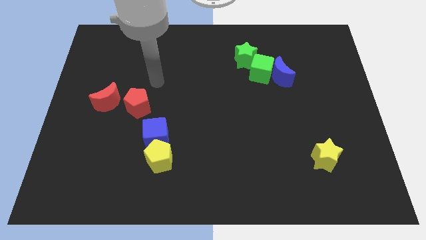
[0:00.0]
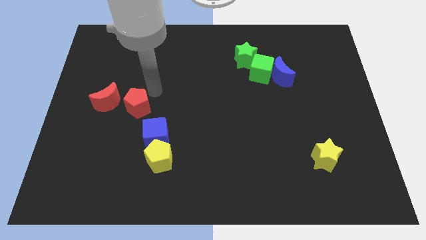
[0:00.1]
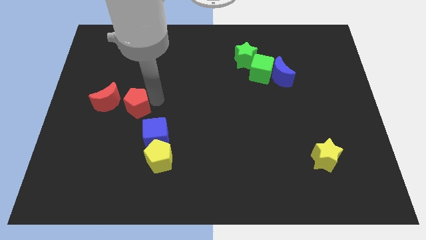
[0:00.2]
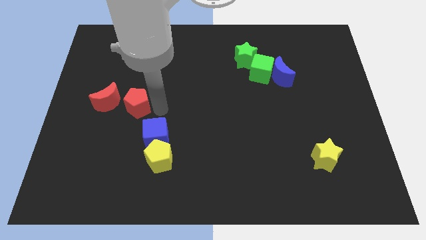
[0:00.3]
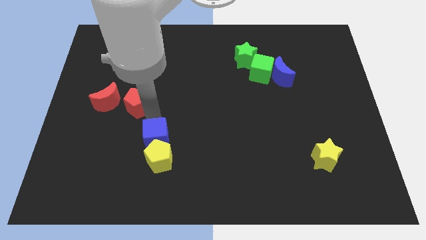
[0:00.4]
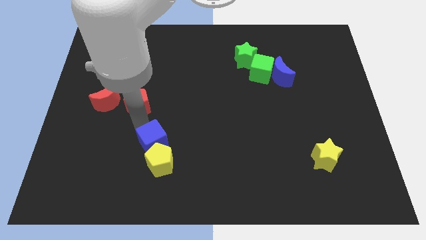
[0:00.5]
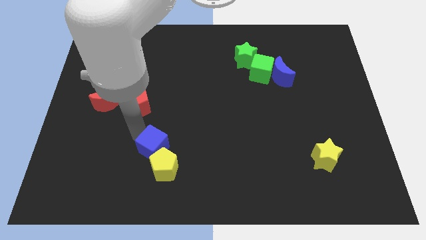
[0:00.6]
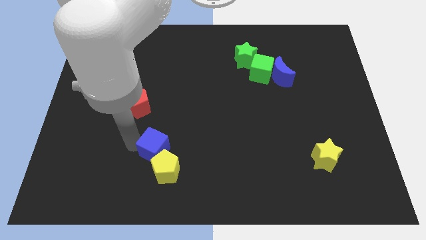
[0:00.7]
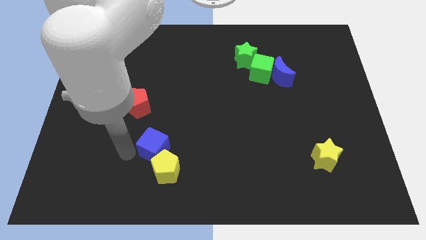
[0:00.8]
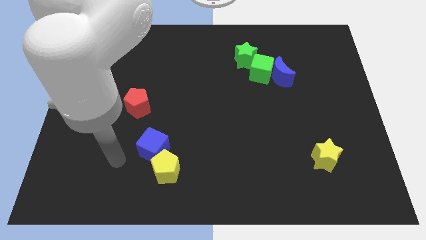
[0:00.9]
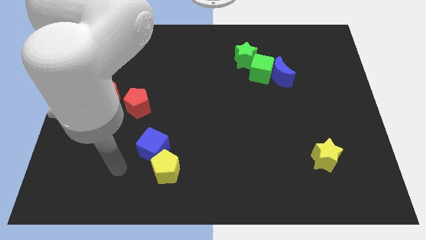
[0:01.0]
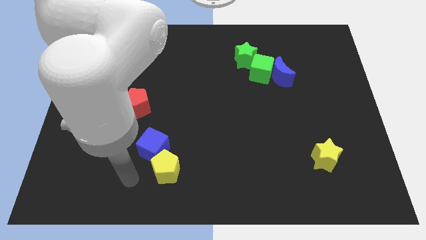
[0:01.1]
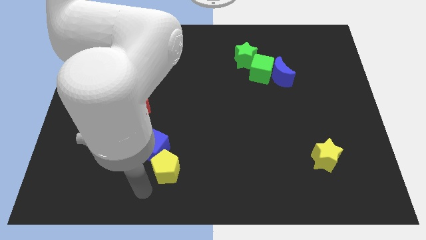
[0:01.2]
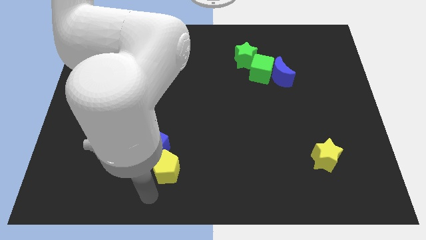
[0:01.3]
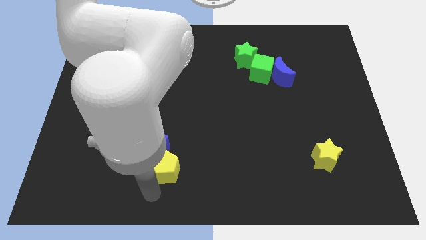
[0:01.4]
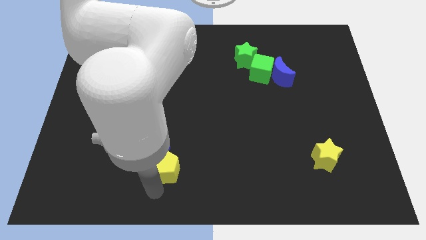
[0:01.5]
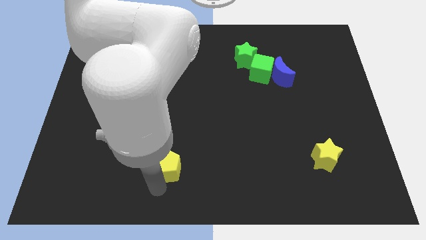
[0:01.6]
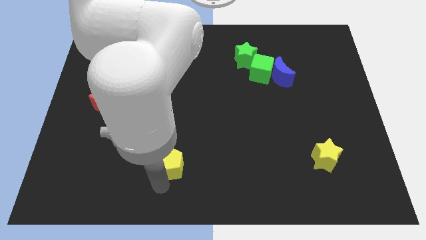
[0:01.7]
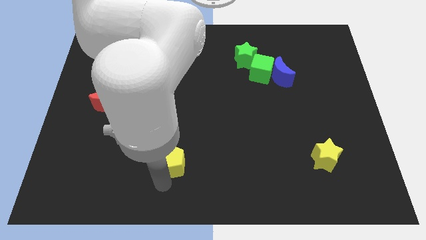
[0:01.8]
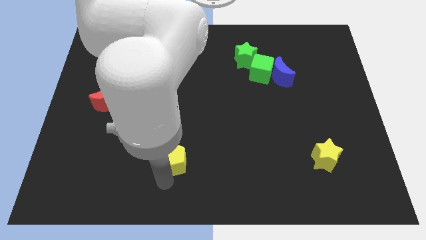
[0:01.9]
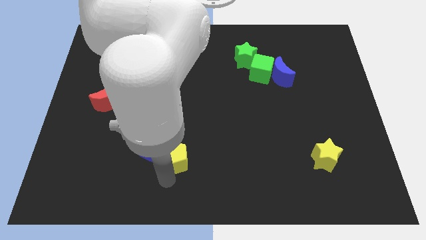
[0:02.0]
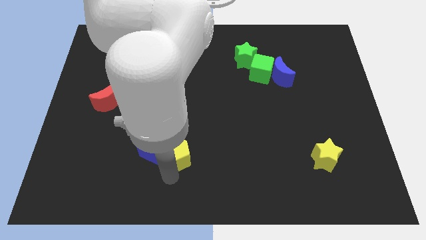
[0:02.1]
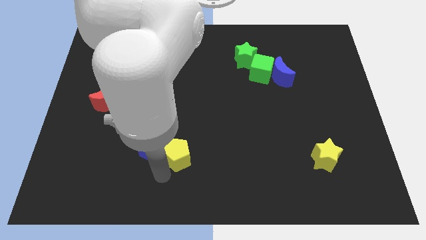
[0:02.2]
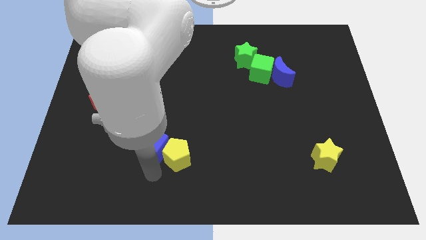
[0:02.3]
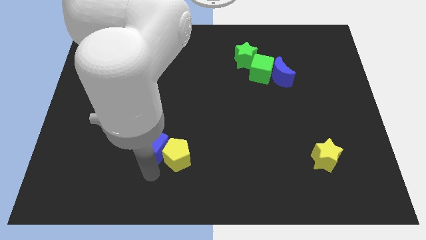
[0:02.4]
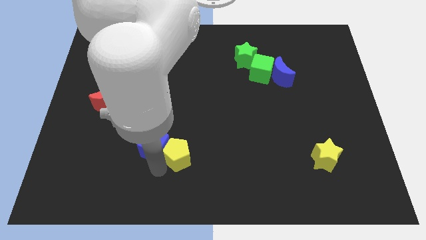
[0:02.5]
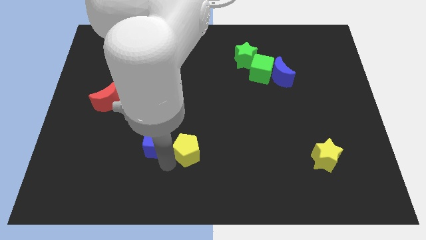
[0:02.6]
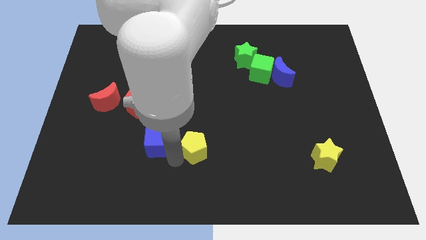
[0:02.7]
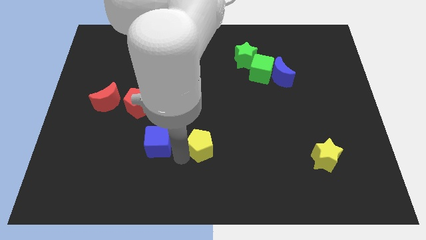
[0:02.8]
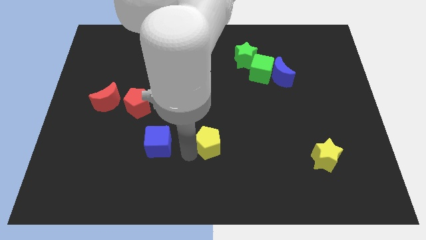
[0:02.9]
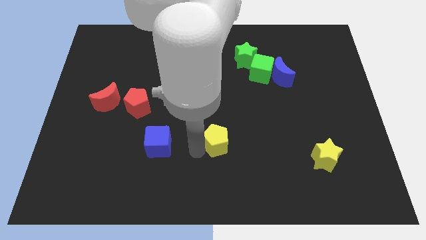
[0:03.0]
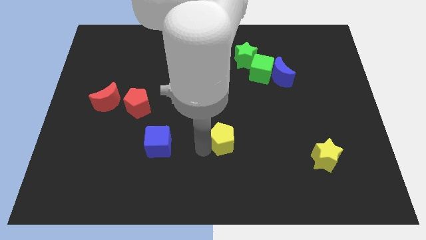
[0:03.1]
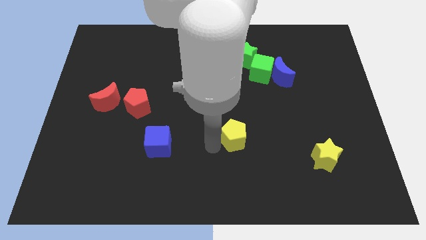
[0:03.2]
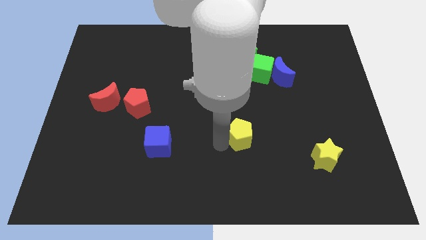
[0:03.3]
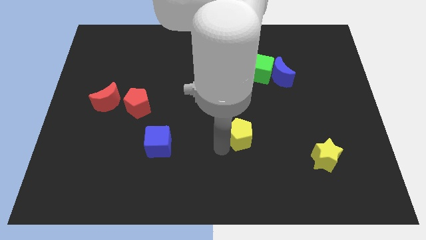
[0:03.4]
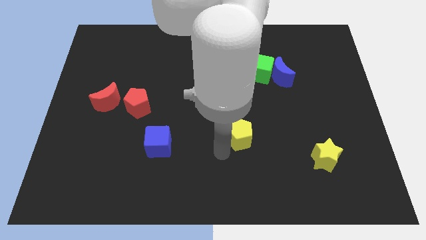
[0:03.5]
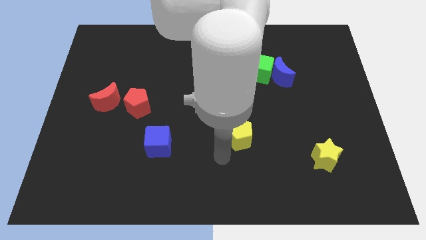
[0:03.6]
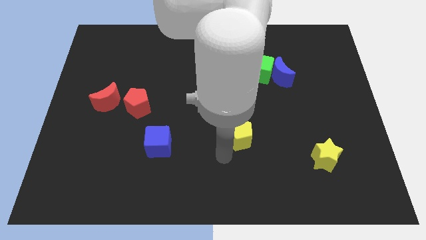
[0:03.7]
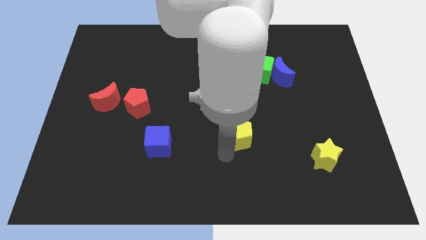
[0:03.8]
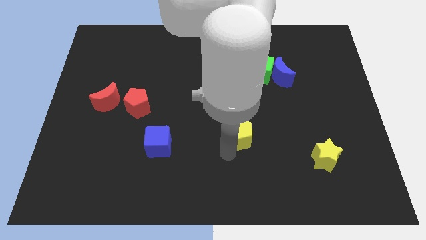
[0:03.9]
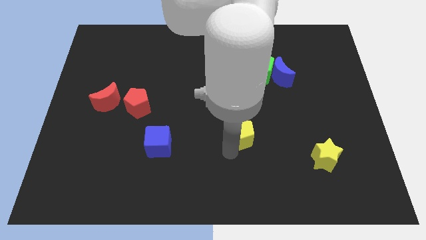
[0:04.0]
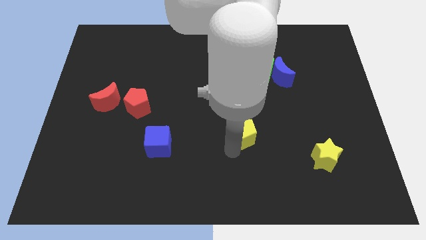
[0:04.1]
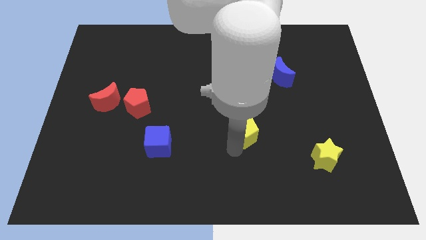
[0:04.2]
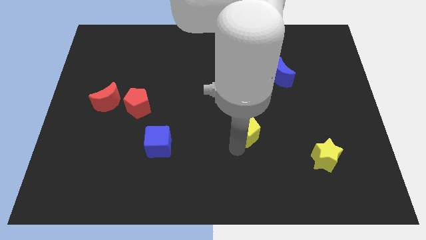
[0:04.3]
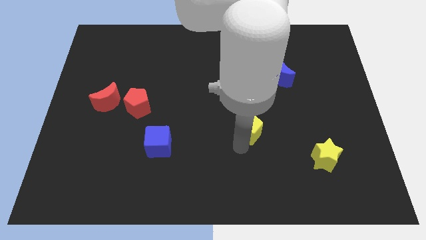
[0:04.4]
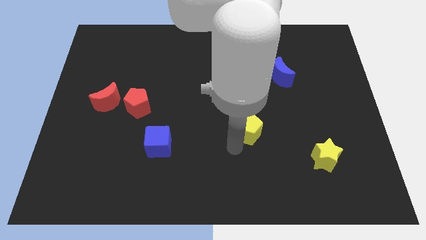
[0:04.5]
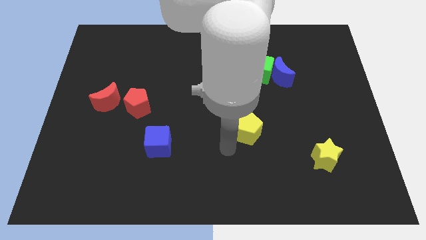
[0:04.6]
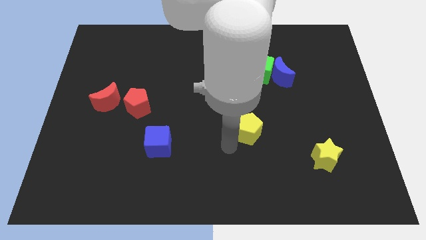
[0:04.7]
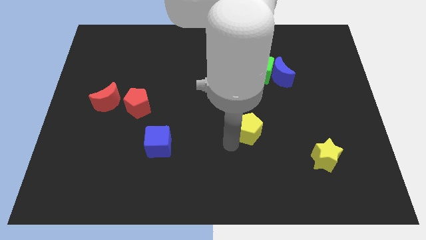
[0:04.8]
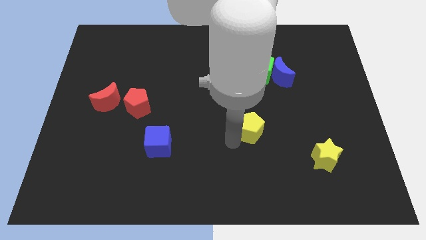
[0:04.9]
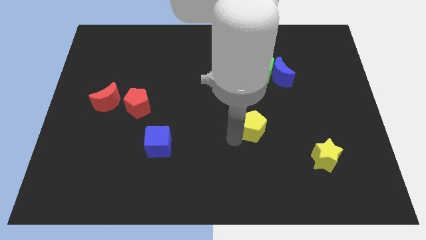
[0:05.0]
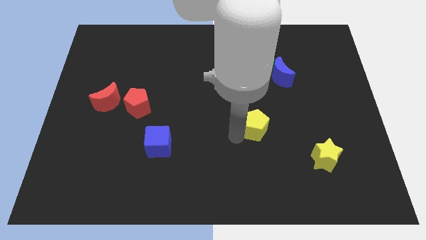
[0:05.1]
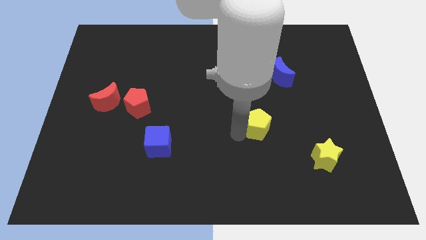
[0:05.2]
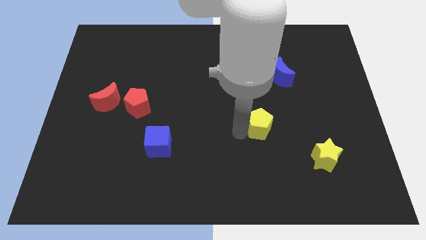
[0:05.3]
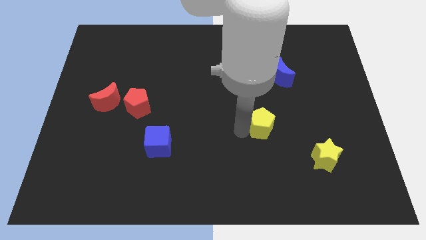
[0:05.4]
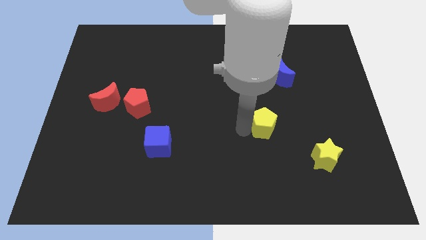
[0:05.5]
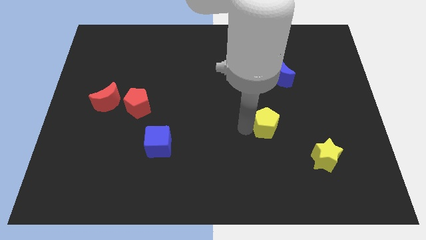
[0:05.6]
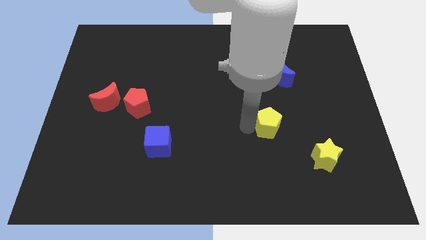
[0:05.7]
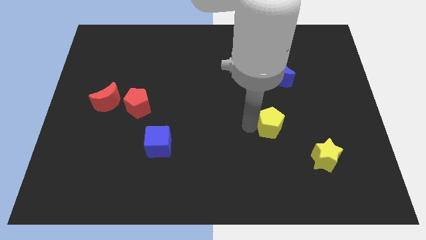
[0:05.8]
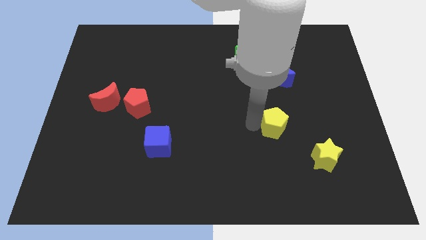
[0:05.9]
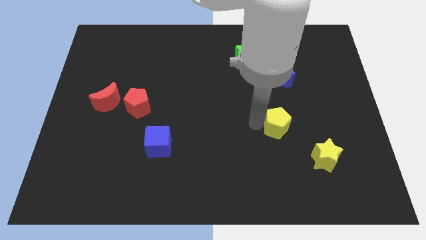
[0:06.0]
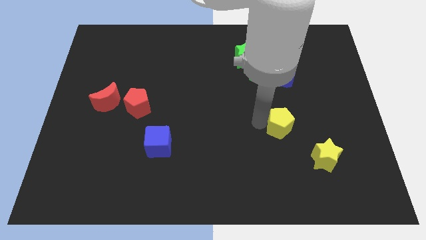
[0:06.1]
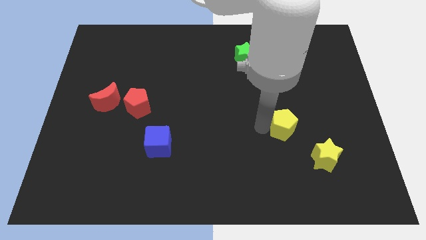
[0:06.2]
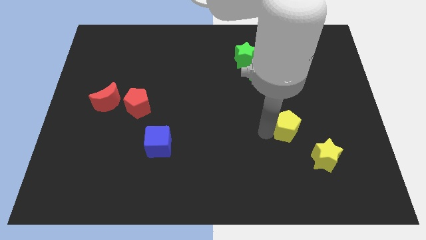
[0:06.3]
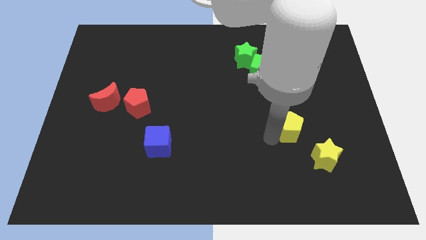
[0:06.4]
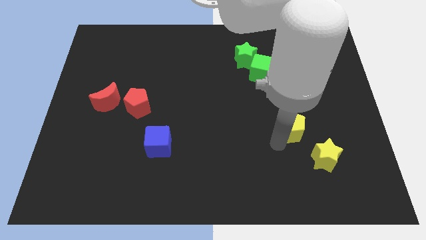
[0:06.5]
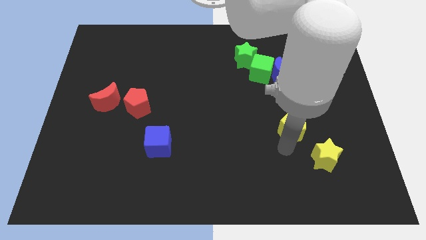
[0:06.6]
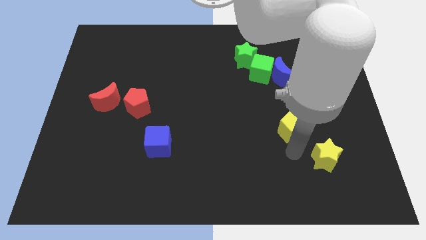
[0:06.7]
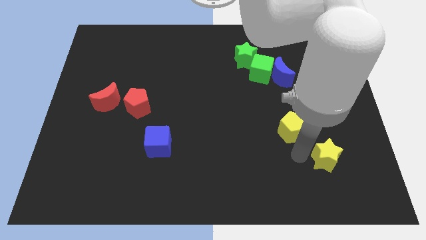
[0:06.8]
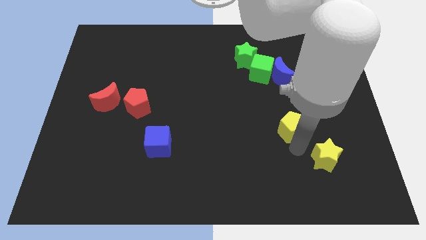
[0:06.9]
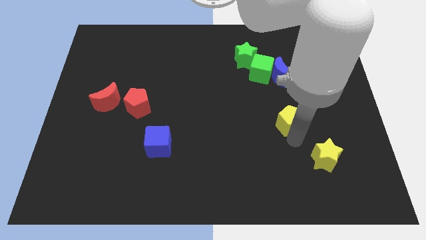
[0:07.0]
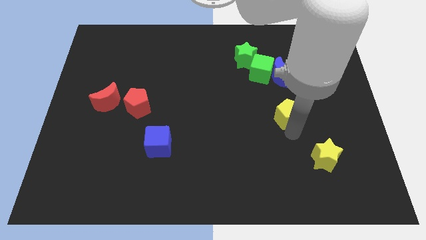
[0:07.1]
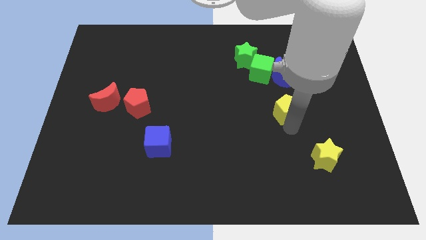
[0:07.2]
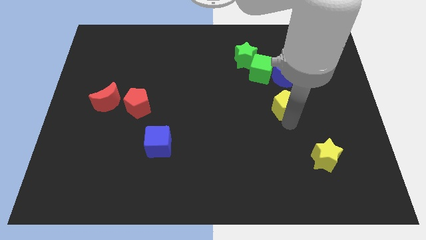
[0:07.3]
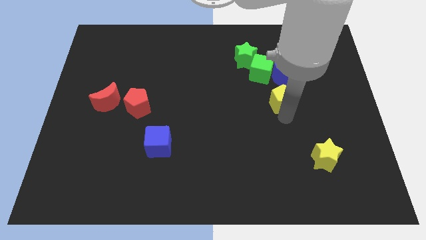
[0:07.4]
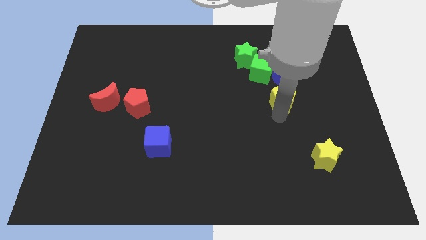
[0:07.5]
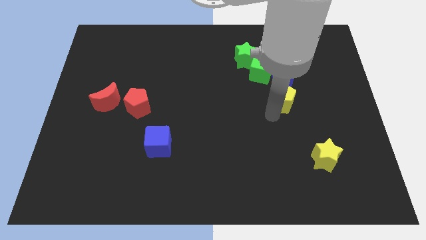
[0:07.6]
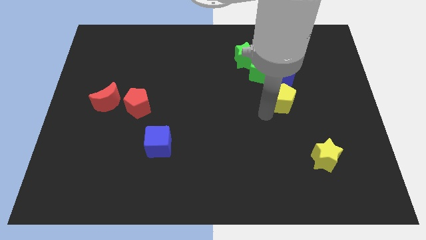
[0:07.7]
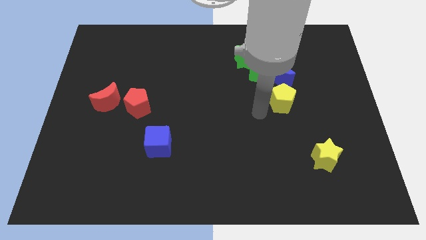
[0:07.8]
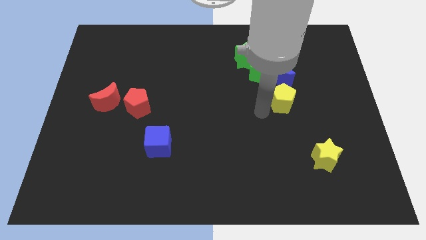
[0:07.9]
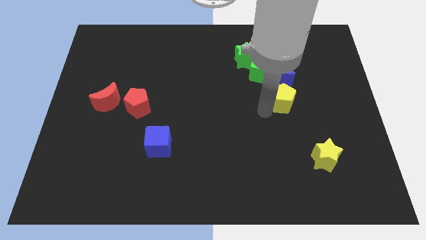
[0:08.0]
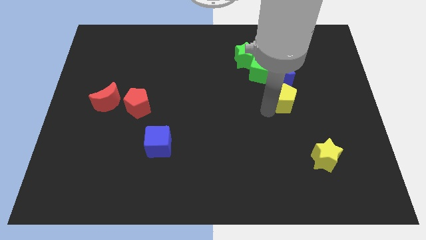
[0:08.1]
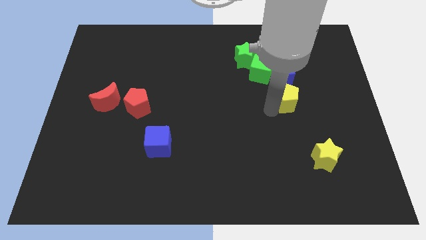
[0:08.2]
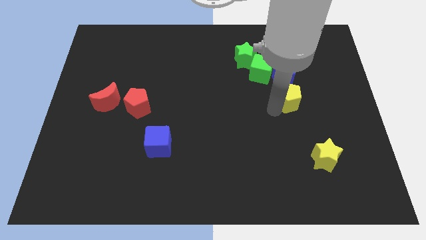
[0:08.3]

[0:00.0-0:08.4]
push the yellow pentagon diagonally down and to the right of the blue moon
